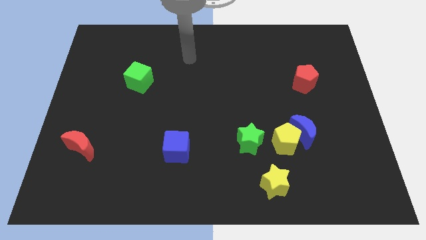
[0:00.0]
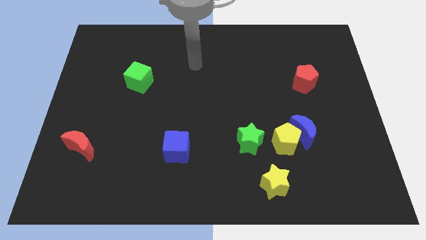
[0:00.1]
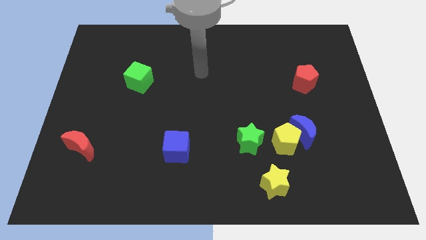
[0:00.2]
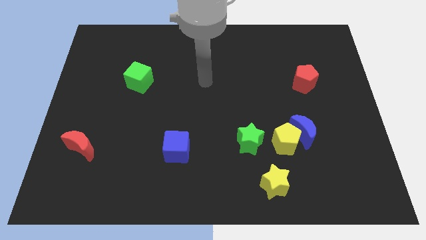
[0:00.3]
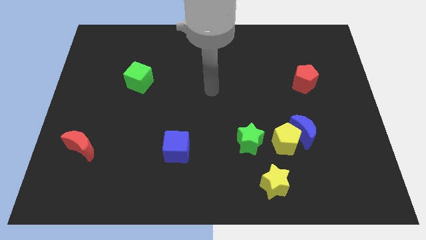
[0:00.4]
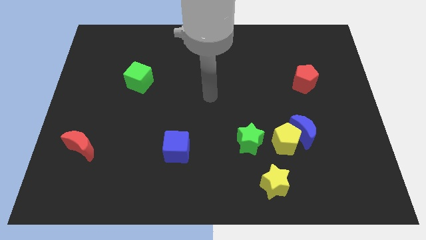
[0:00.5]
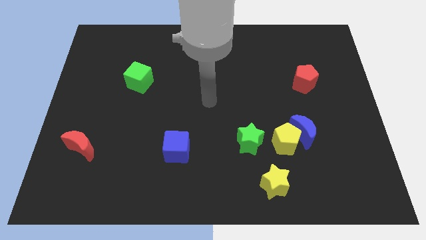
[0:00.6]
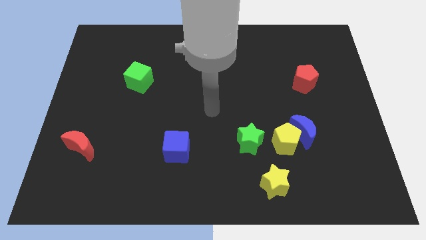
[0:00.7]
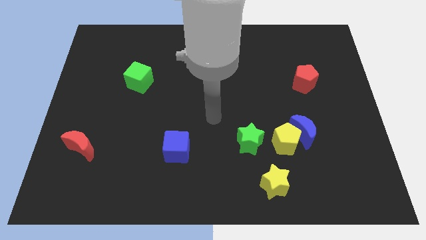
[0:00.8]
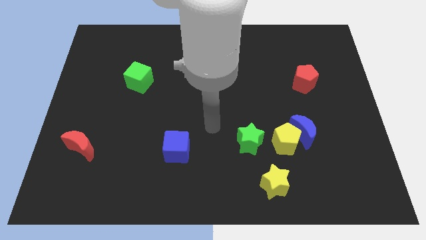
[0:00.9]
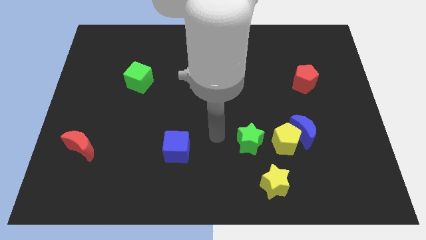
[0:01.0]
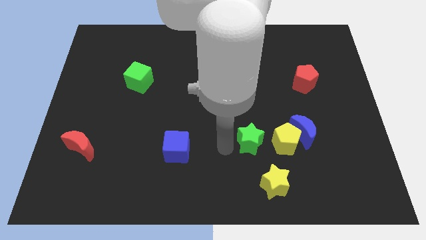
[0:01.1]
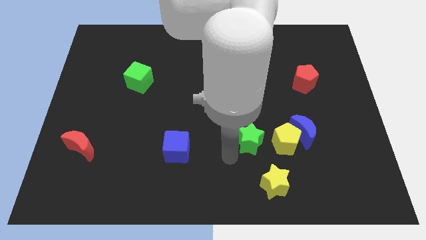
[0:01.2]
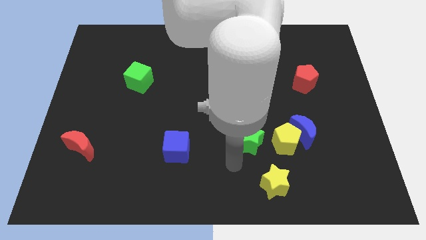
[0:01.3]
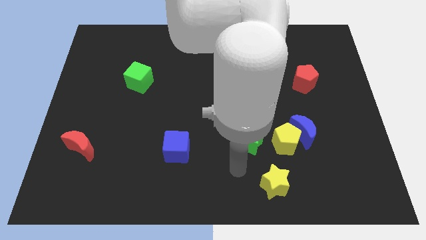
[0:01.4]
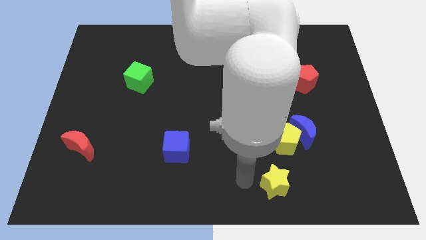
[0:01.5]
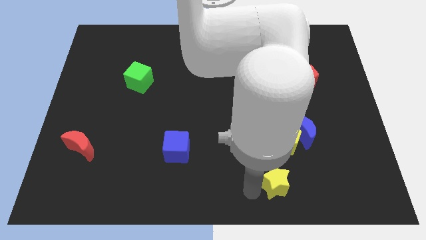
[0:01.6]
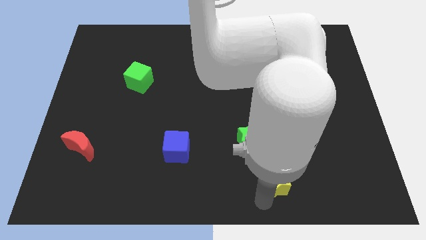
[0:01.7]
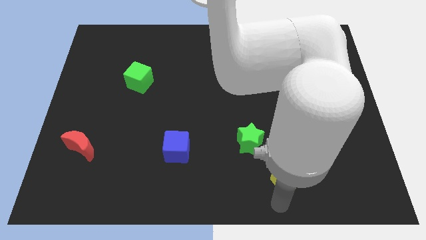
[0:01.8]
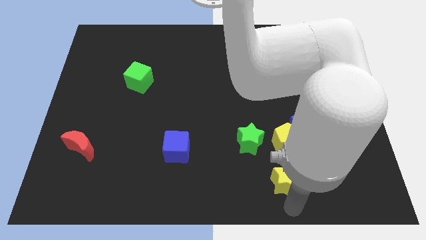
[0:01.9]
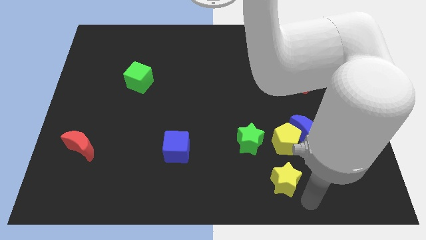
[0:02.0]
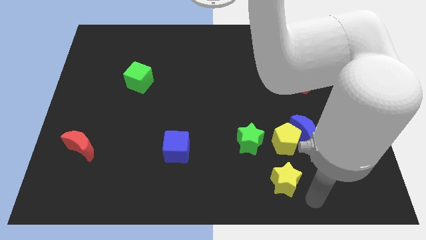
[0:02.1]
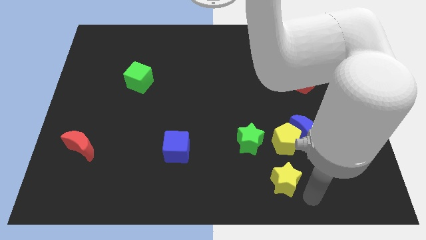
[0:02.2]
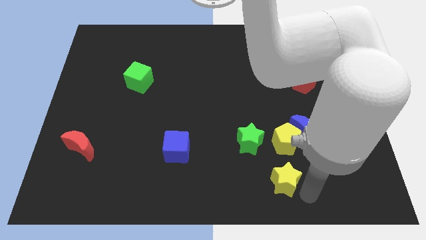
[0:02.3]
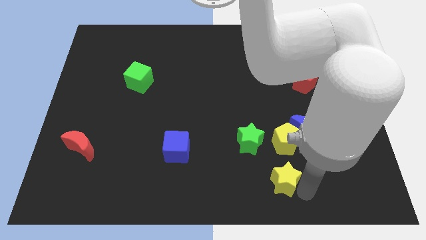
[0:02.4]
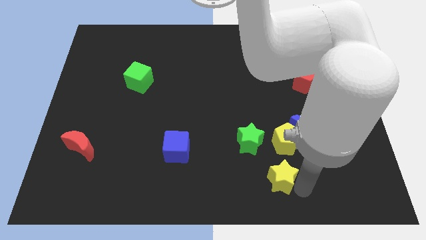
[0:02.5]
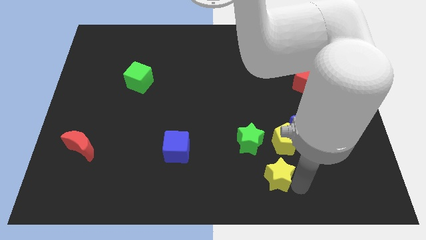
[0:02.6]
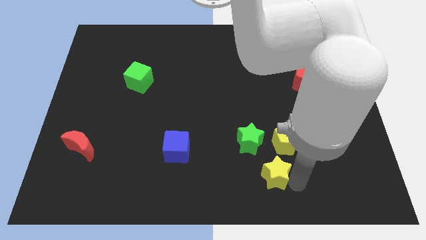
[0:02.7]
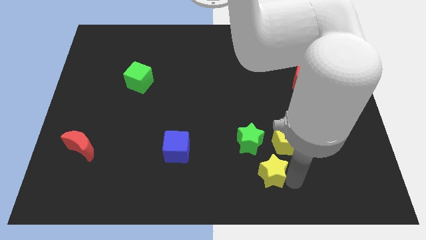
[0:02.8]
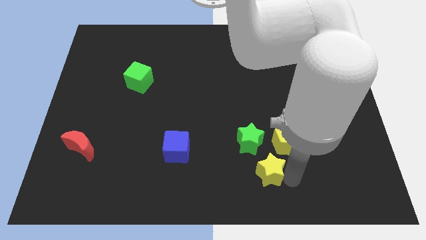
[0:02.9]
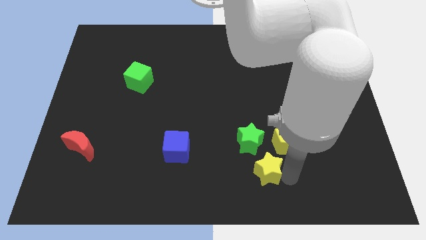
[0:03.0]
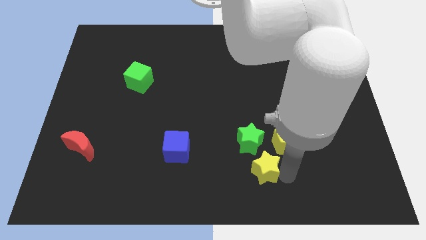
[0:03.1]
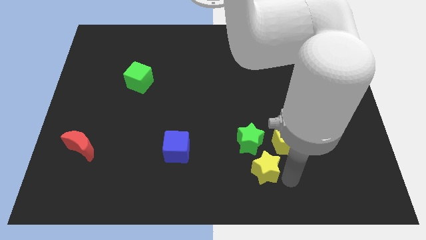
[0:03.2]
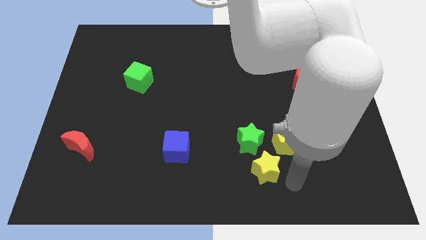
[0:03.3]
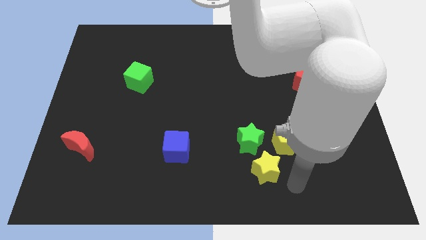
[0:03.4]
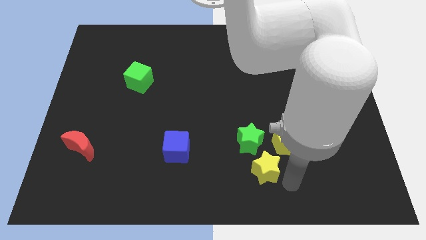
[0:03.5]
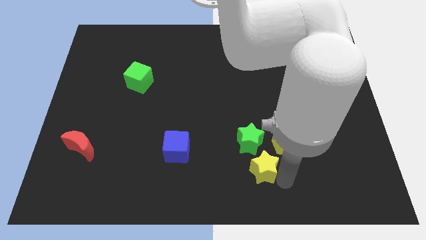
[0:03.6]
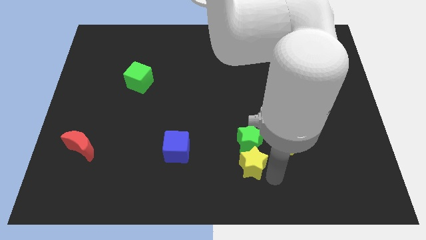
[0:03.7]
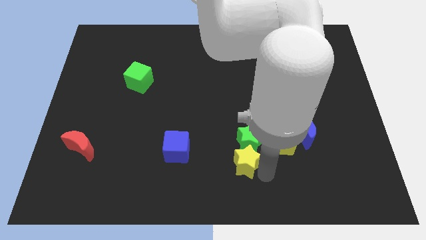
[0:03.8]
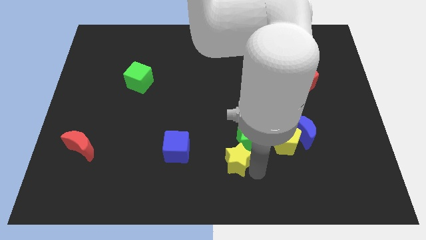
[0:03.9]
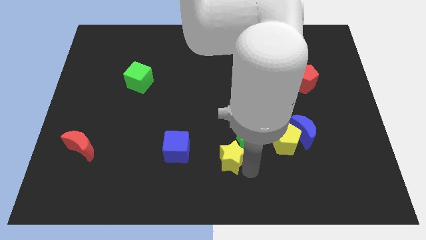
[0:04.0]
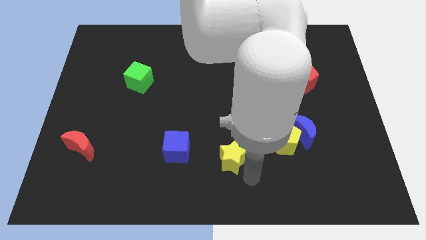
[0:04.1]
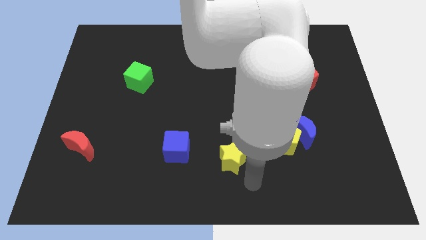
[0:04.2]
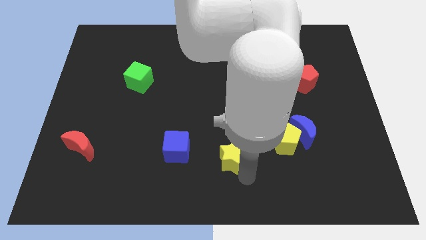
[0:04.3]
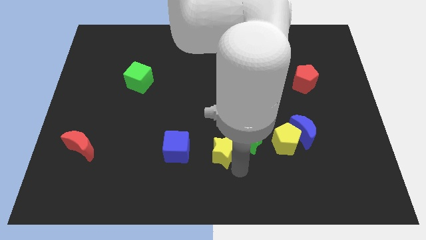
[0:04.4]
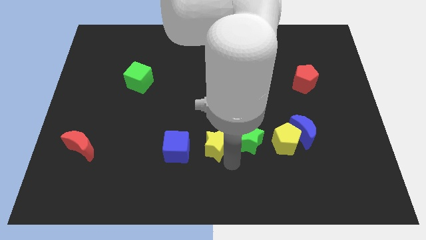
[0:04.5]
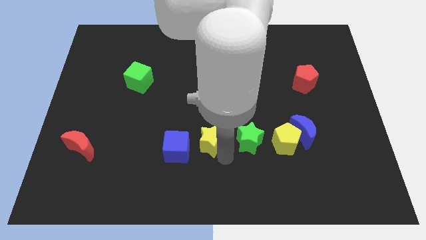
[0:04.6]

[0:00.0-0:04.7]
put the yellow star to the top right of the blue cube

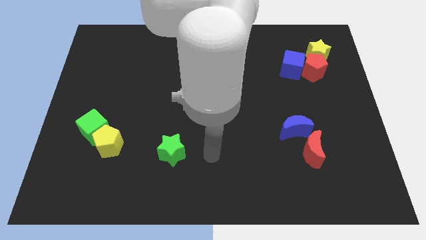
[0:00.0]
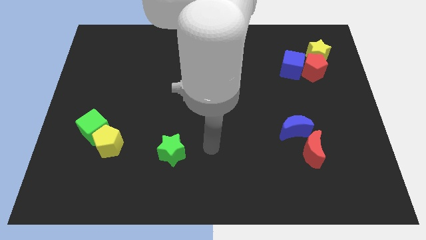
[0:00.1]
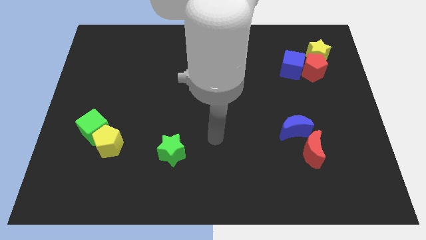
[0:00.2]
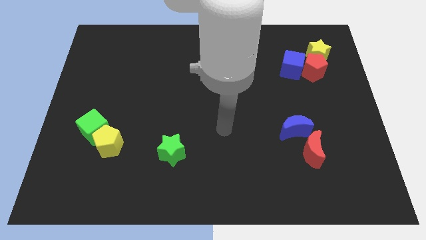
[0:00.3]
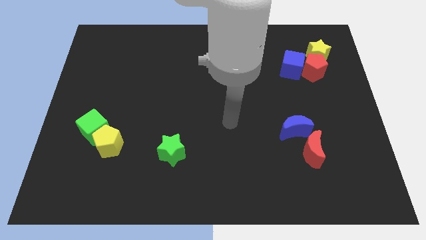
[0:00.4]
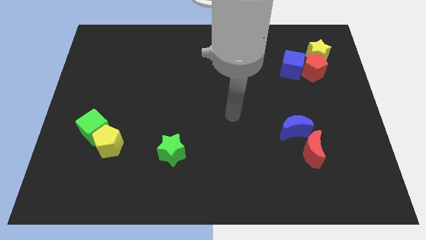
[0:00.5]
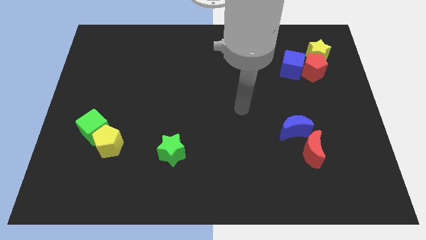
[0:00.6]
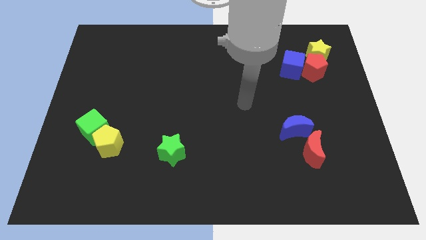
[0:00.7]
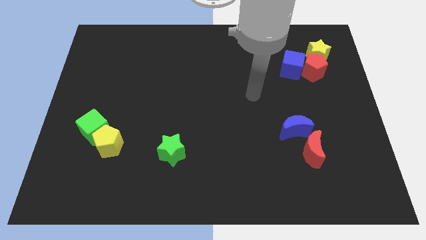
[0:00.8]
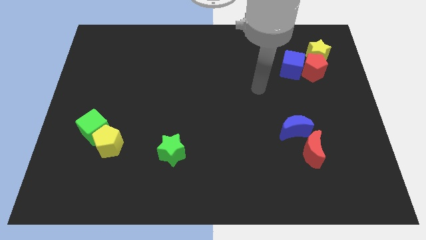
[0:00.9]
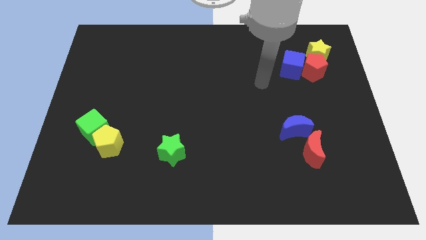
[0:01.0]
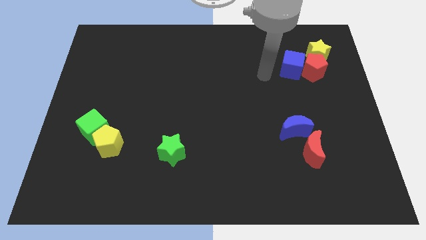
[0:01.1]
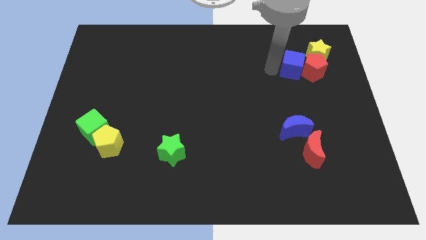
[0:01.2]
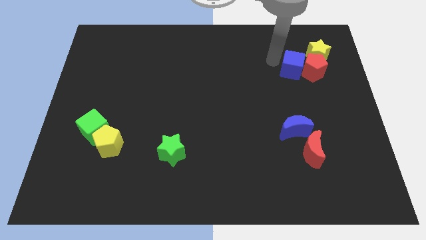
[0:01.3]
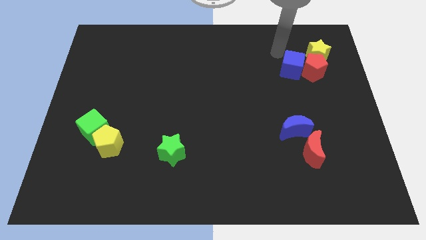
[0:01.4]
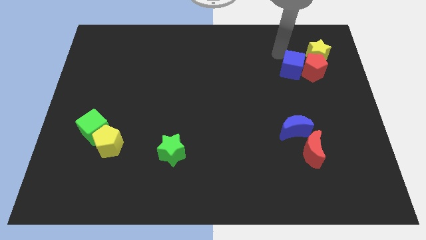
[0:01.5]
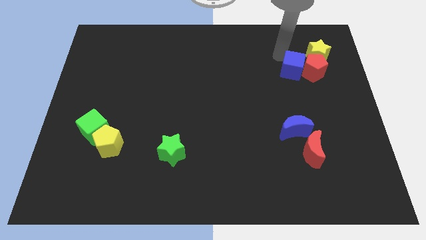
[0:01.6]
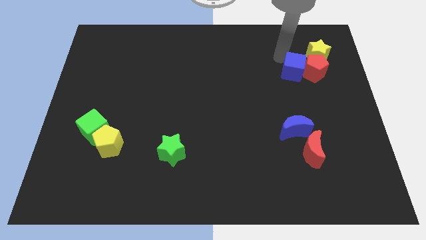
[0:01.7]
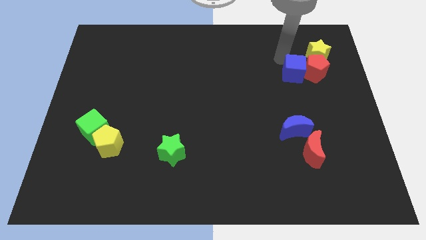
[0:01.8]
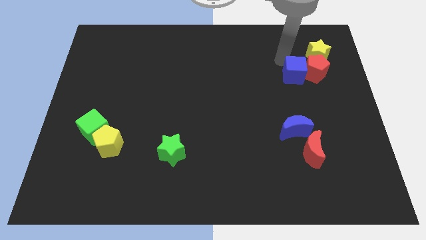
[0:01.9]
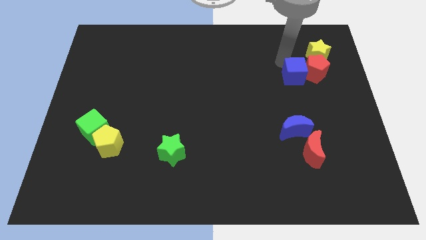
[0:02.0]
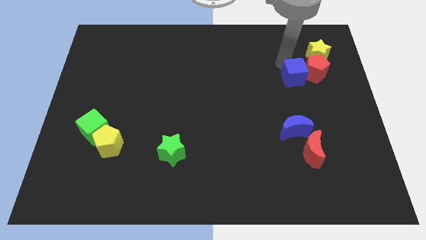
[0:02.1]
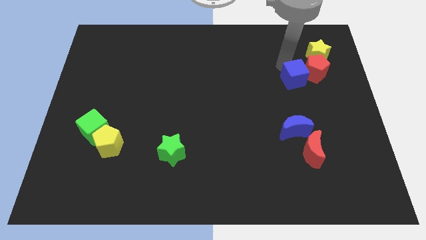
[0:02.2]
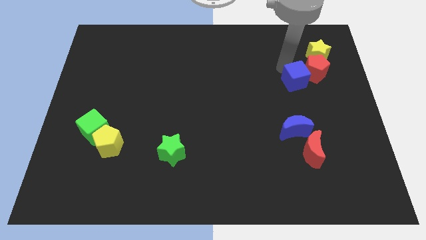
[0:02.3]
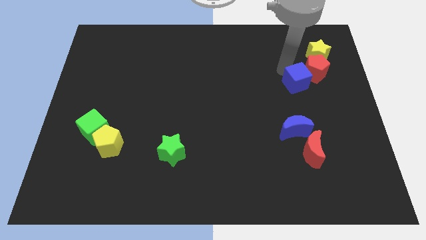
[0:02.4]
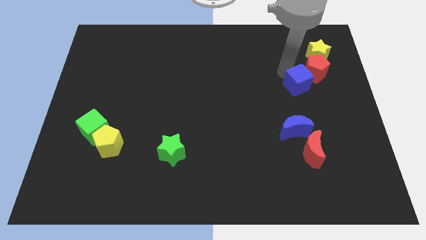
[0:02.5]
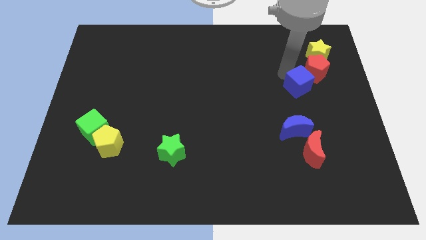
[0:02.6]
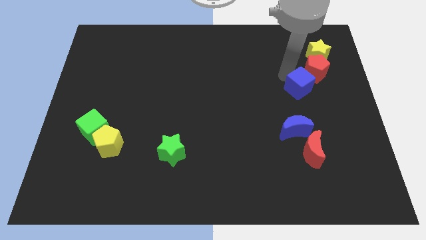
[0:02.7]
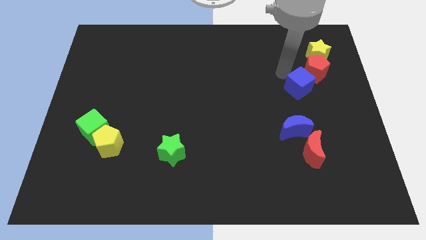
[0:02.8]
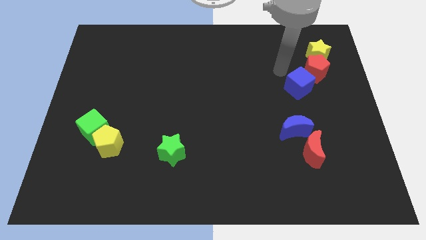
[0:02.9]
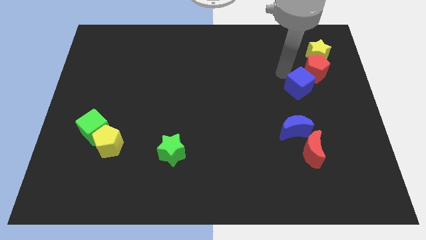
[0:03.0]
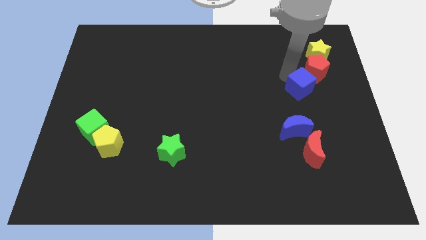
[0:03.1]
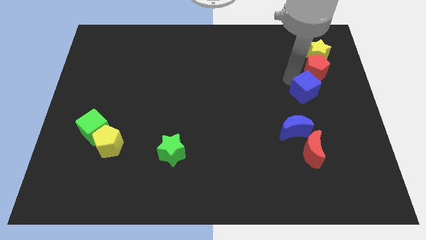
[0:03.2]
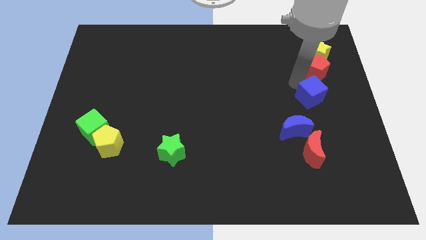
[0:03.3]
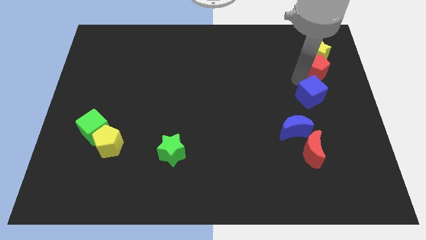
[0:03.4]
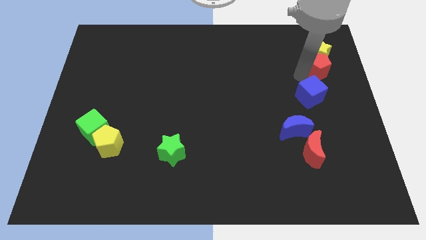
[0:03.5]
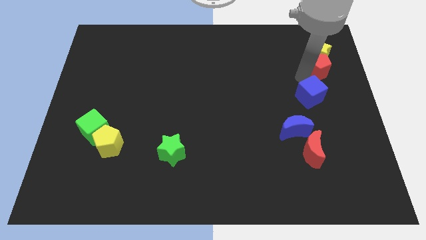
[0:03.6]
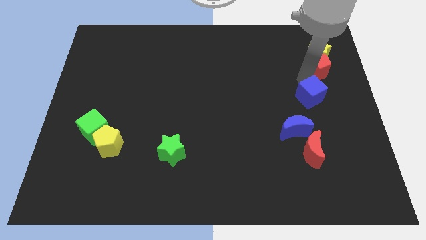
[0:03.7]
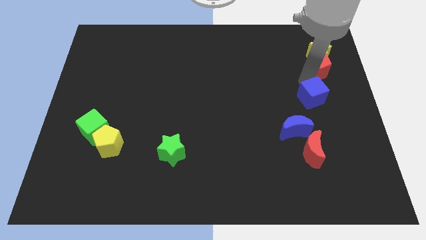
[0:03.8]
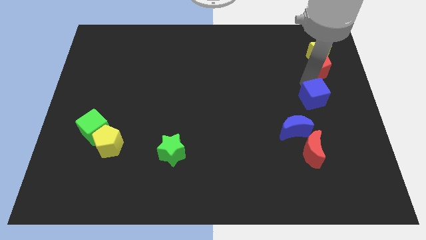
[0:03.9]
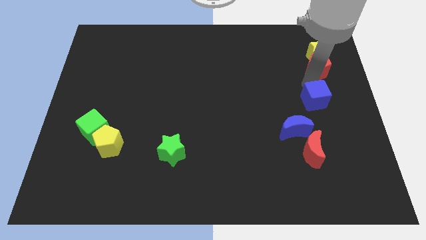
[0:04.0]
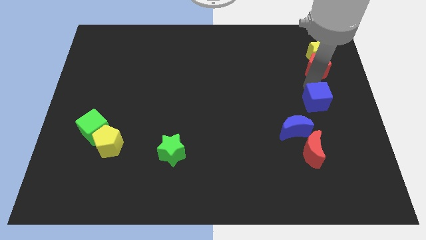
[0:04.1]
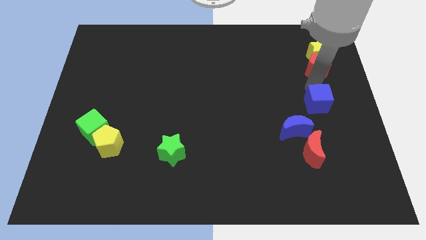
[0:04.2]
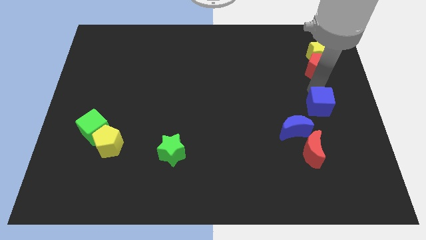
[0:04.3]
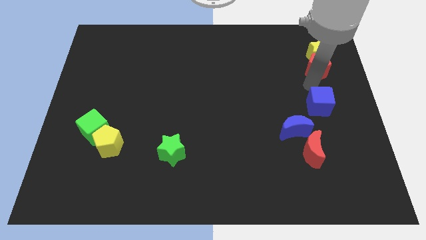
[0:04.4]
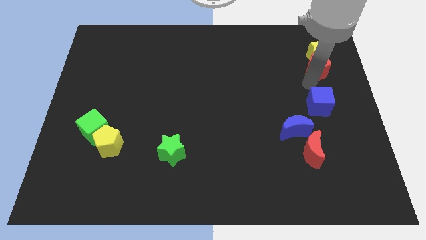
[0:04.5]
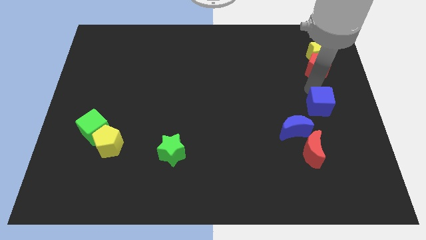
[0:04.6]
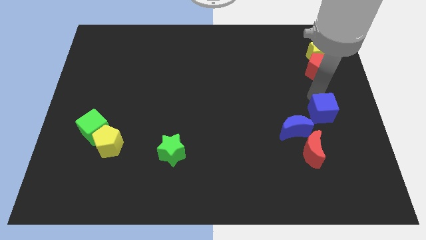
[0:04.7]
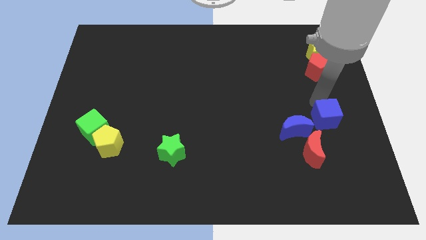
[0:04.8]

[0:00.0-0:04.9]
push the blue cube to the top right of the red moon
